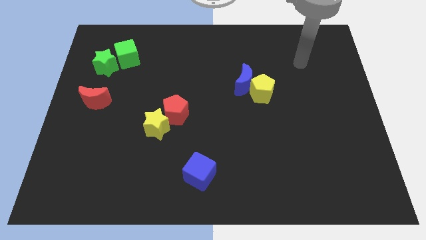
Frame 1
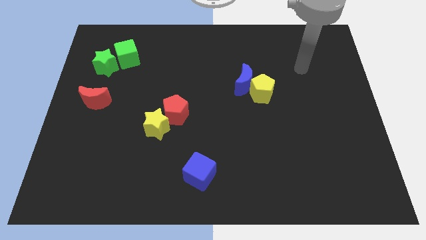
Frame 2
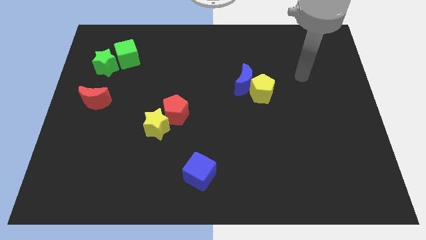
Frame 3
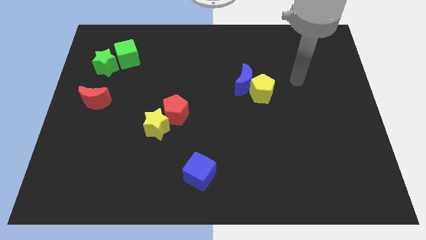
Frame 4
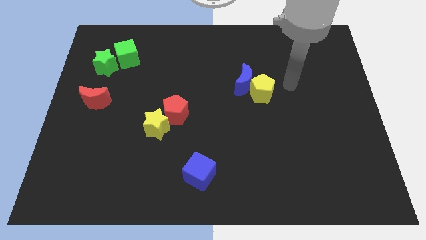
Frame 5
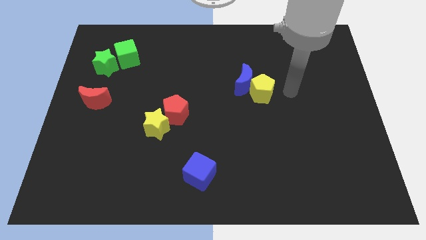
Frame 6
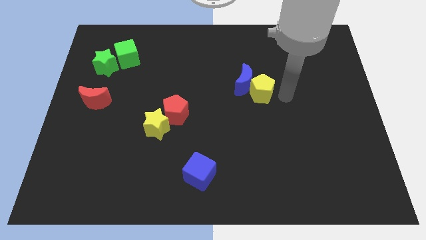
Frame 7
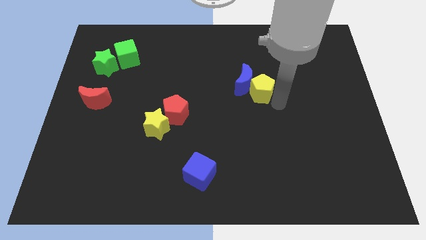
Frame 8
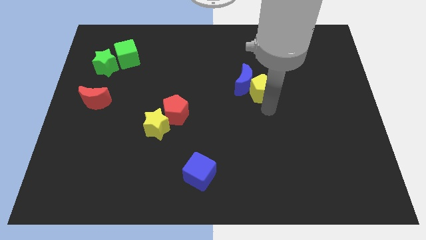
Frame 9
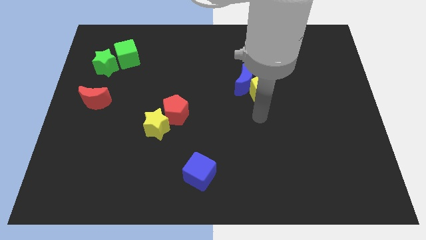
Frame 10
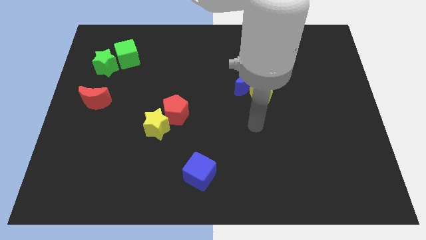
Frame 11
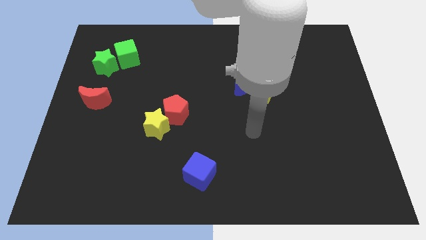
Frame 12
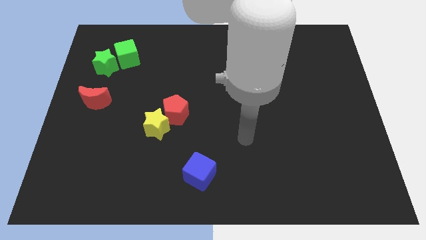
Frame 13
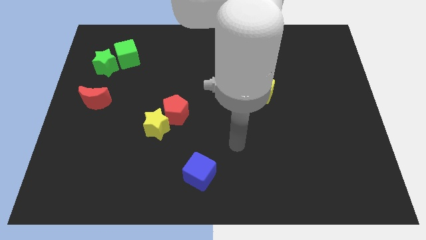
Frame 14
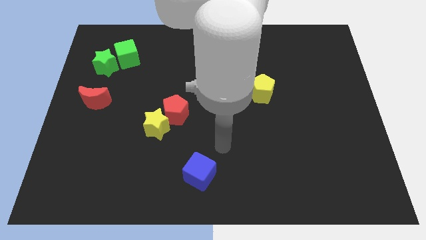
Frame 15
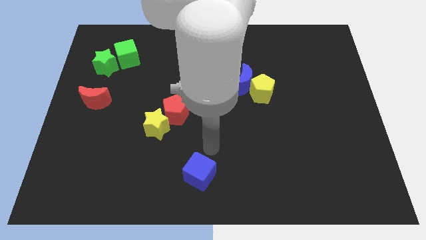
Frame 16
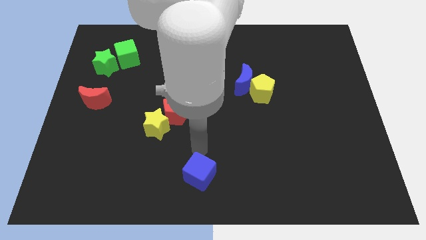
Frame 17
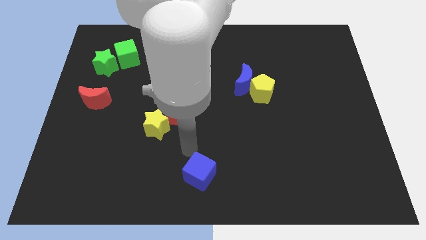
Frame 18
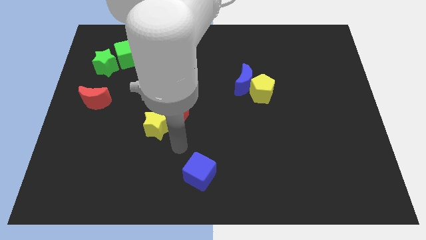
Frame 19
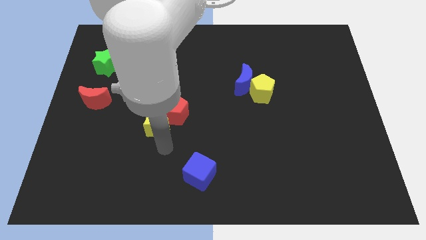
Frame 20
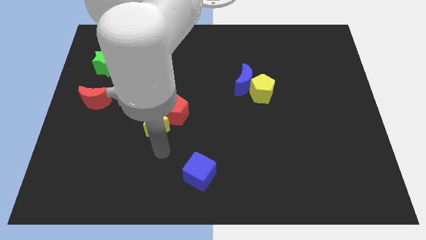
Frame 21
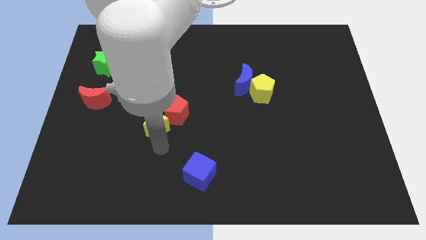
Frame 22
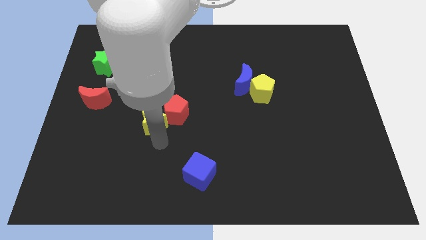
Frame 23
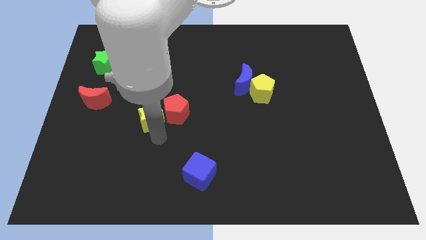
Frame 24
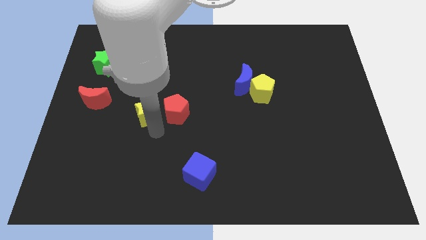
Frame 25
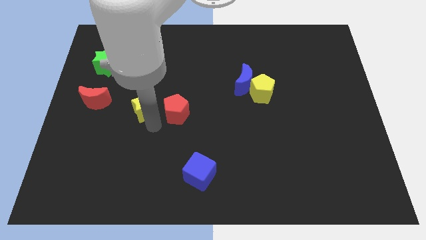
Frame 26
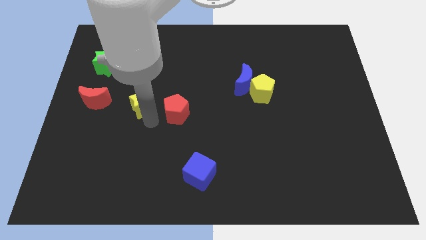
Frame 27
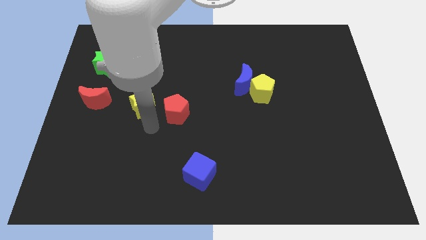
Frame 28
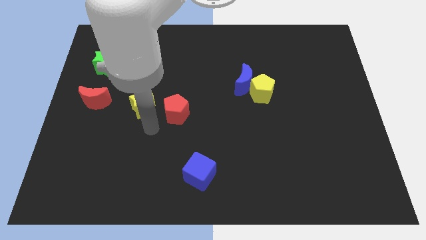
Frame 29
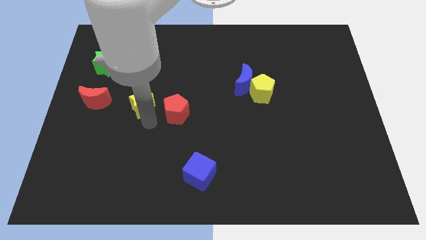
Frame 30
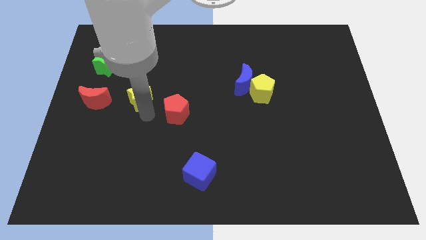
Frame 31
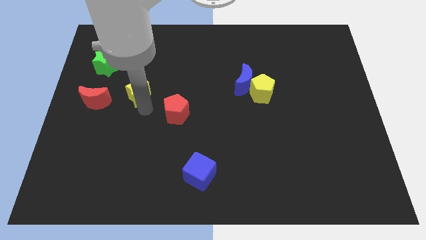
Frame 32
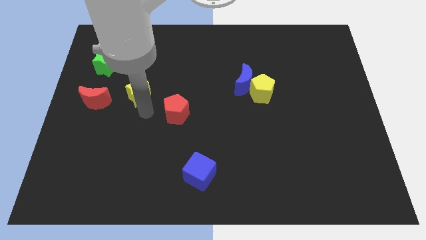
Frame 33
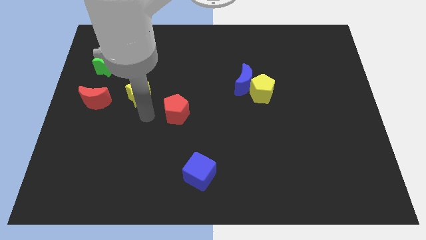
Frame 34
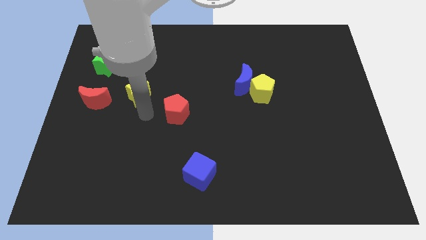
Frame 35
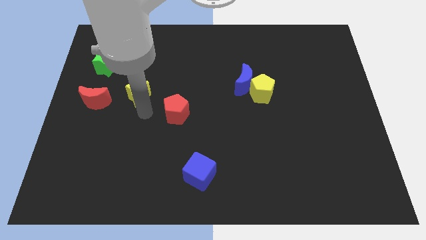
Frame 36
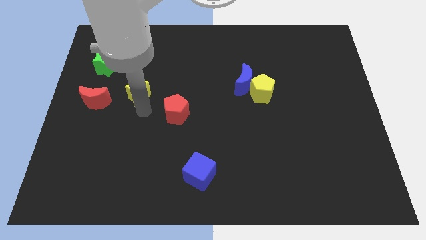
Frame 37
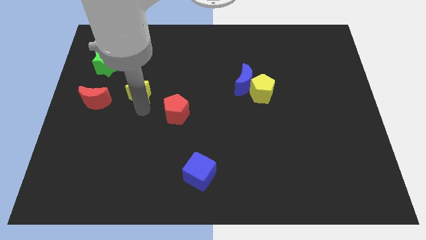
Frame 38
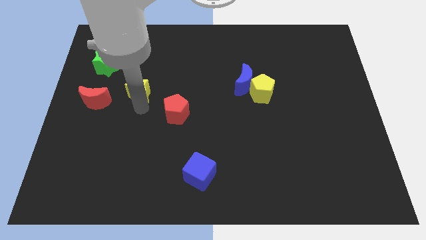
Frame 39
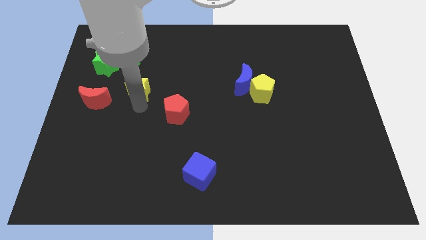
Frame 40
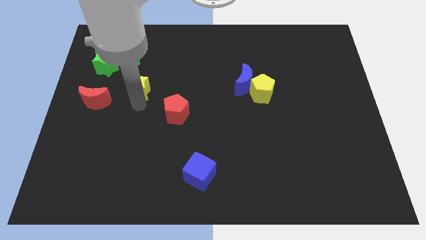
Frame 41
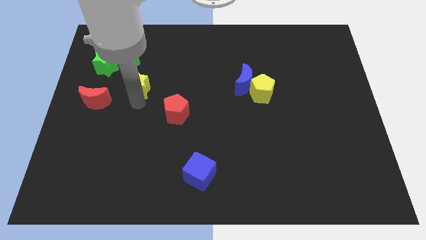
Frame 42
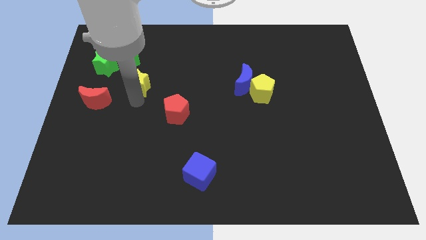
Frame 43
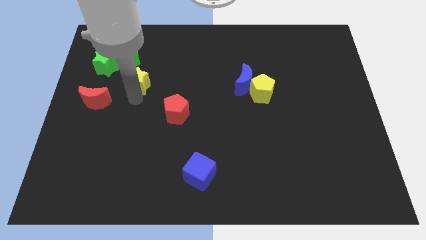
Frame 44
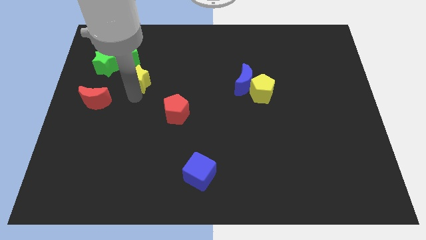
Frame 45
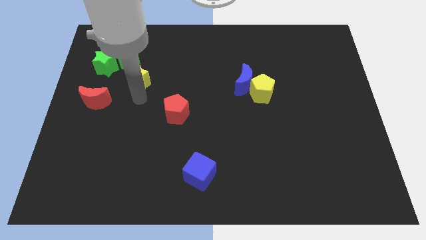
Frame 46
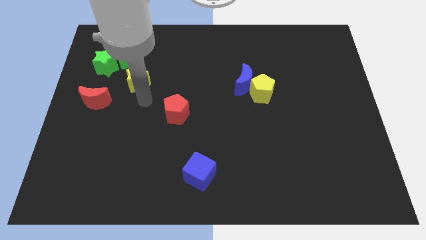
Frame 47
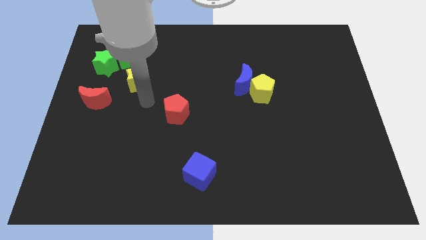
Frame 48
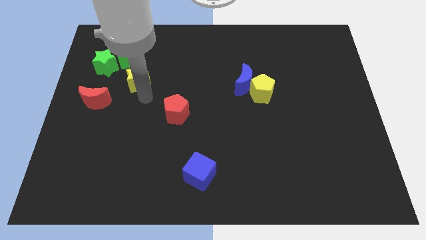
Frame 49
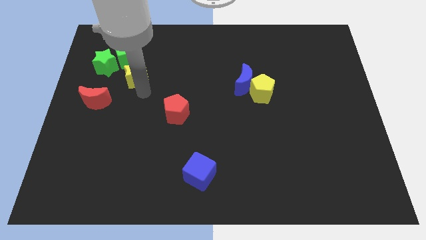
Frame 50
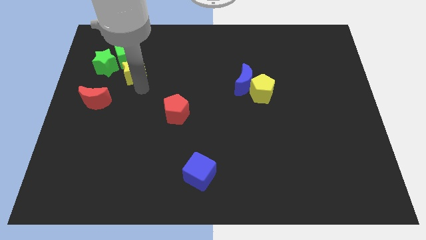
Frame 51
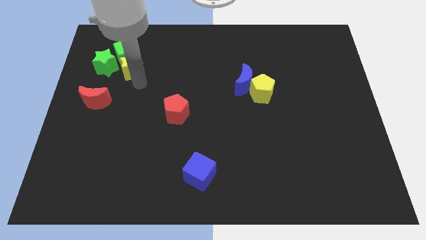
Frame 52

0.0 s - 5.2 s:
slide the yellow star close to the green cube

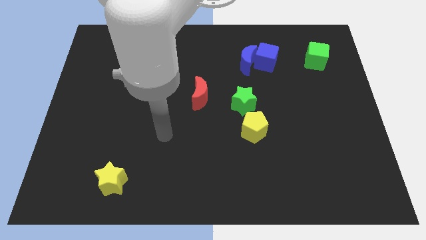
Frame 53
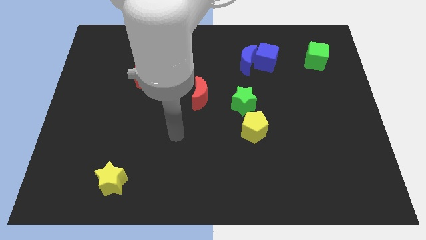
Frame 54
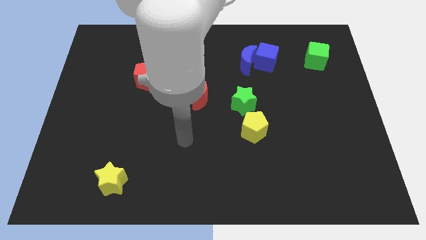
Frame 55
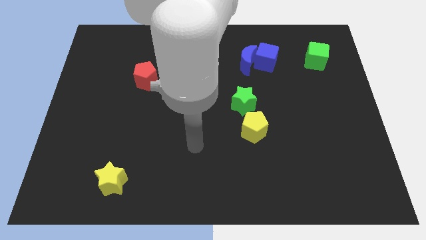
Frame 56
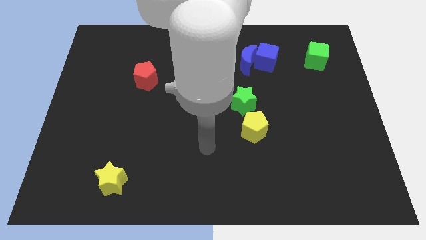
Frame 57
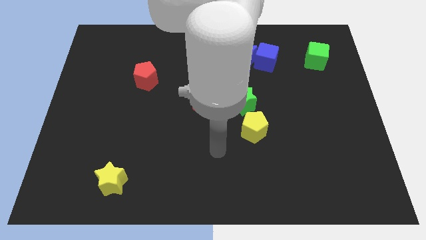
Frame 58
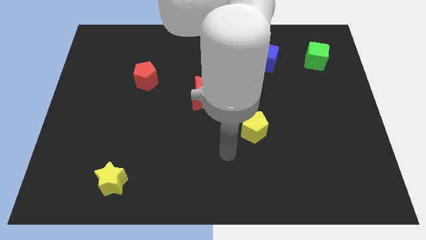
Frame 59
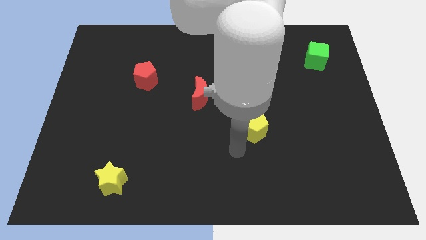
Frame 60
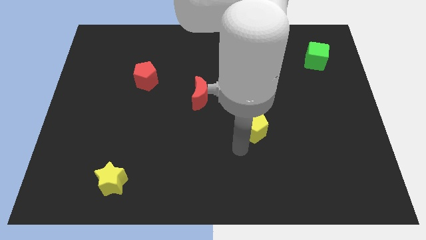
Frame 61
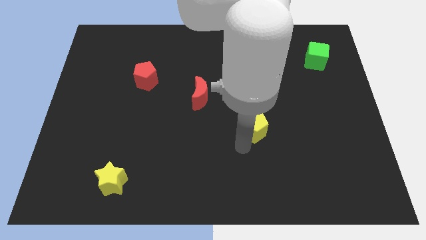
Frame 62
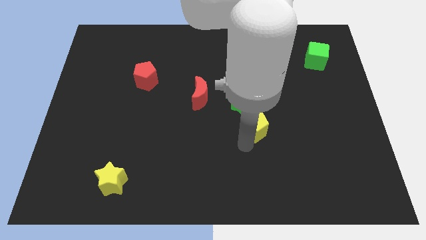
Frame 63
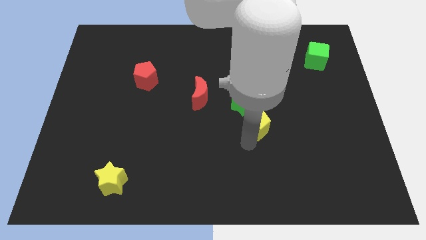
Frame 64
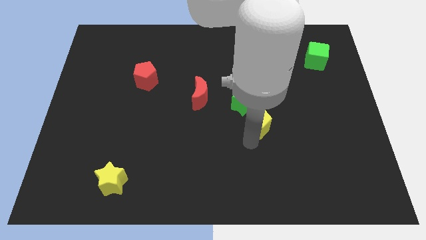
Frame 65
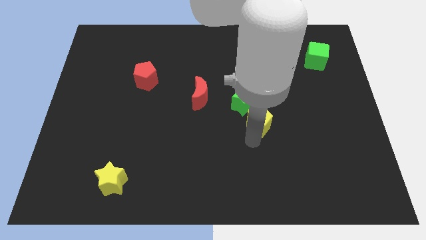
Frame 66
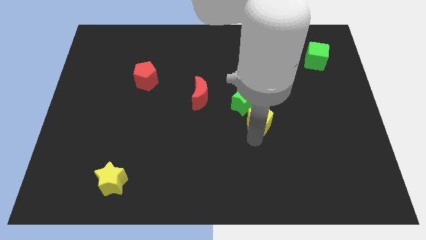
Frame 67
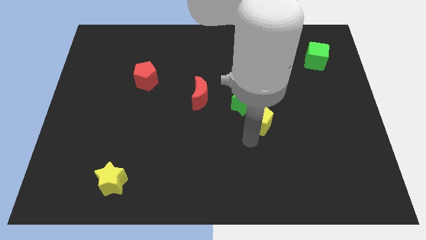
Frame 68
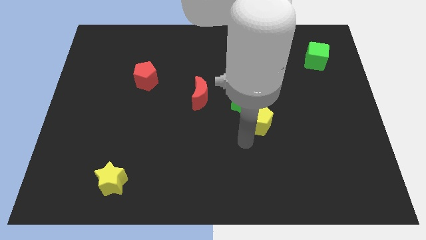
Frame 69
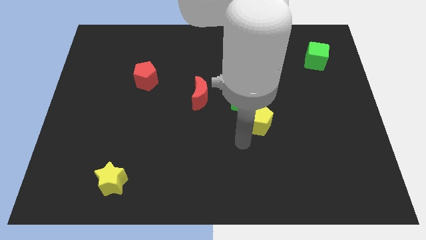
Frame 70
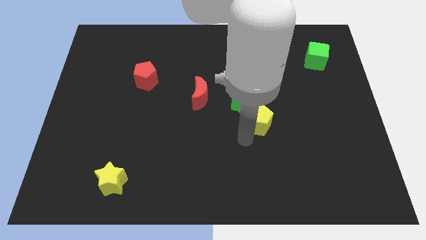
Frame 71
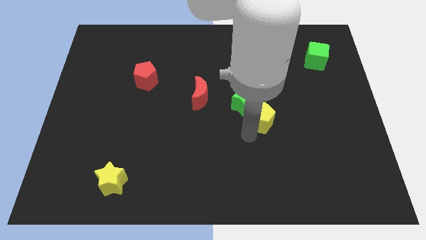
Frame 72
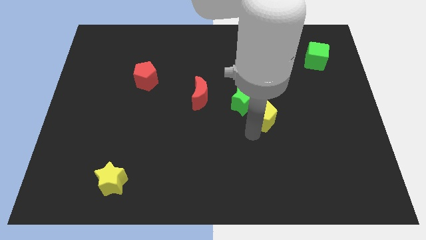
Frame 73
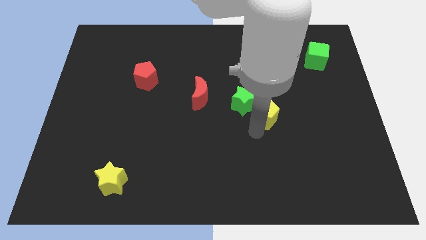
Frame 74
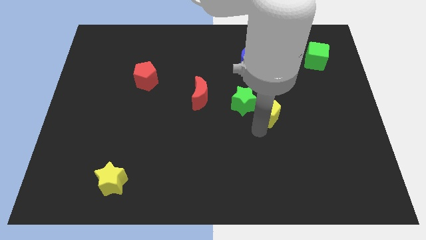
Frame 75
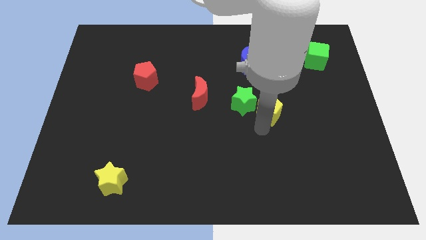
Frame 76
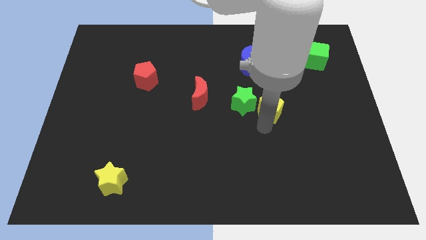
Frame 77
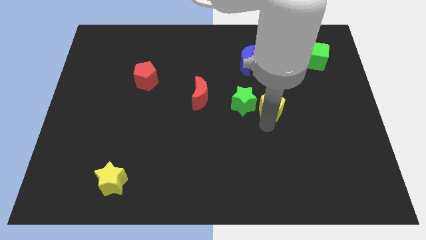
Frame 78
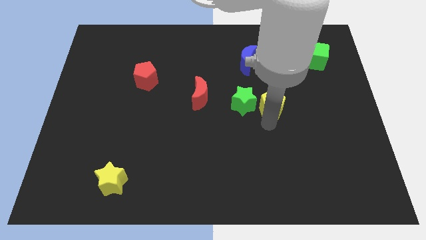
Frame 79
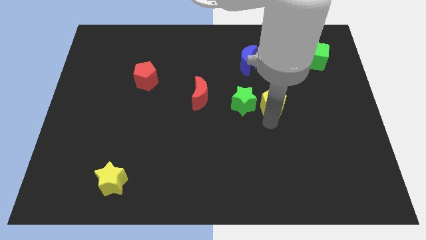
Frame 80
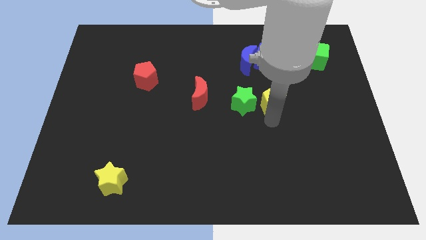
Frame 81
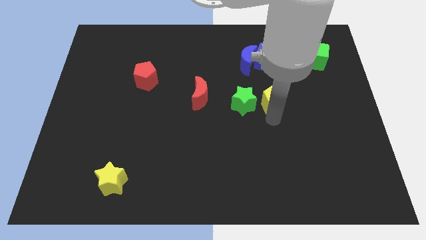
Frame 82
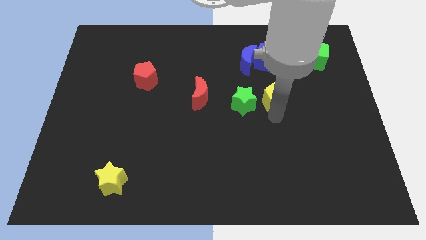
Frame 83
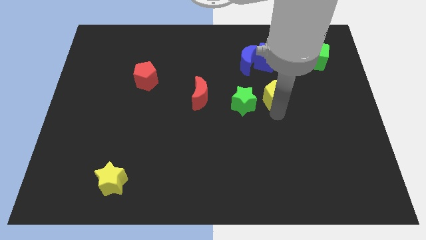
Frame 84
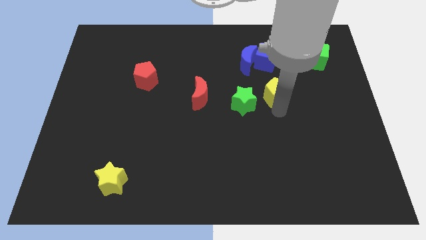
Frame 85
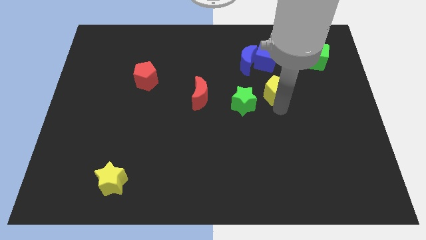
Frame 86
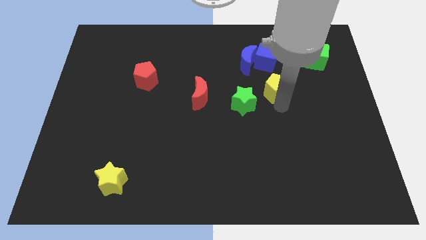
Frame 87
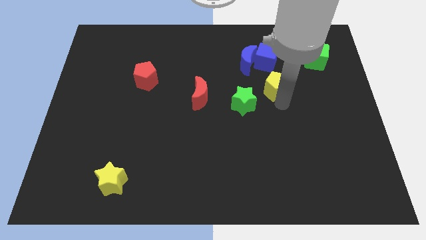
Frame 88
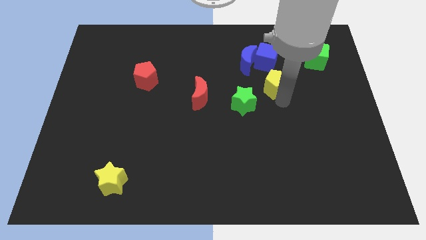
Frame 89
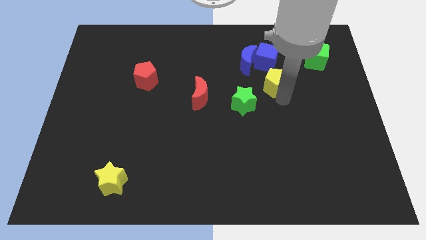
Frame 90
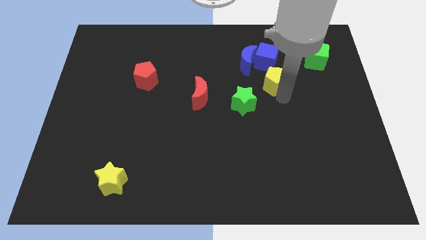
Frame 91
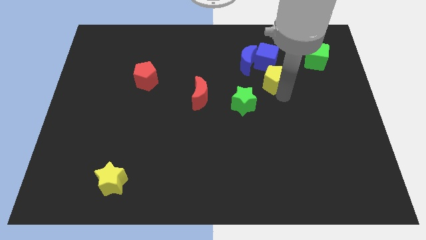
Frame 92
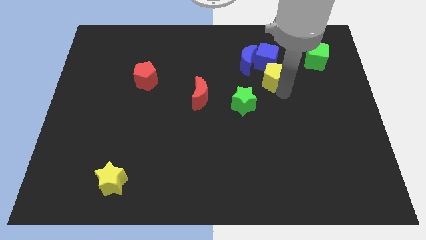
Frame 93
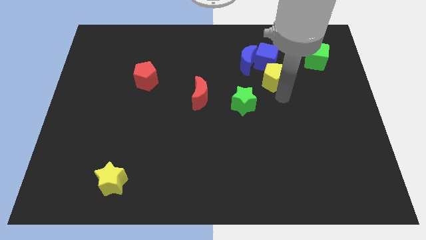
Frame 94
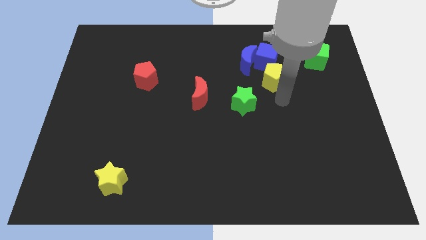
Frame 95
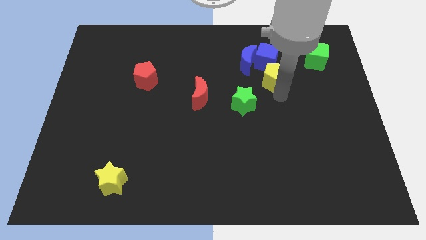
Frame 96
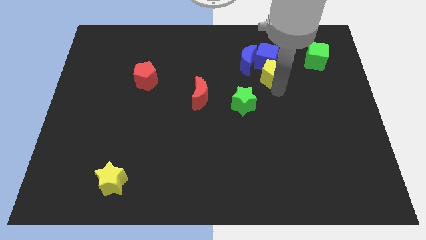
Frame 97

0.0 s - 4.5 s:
slide the yellow pentagon next to the blue cube
